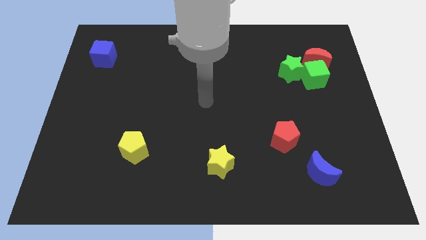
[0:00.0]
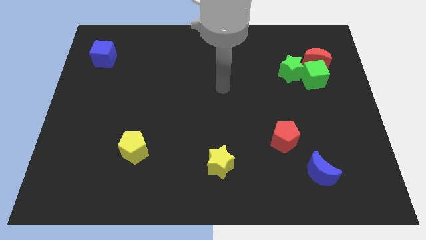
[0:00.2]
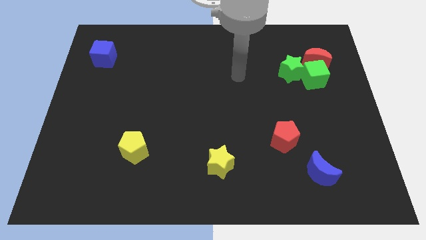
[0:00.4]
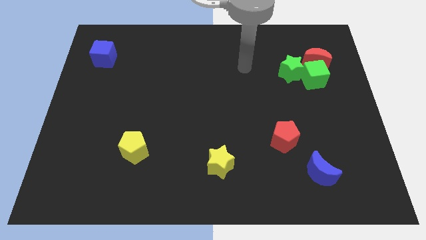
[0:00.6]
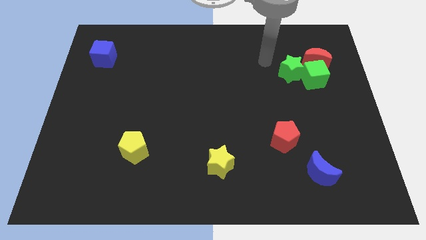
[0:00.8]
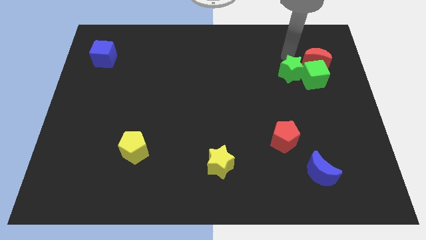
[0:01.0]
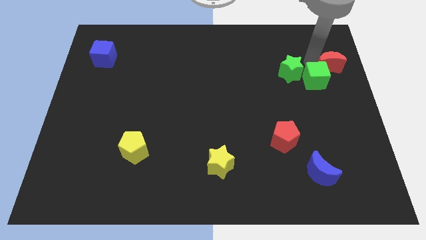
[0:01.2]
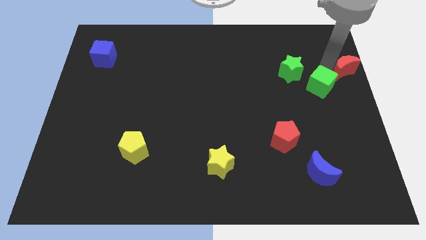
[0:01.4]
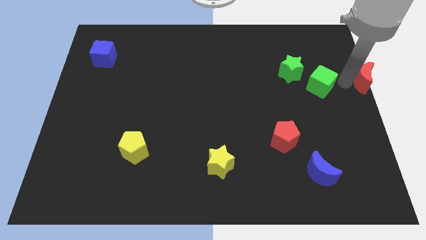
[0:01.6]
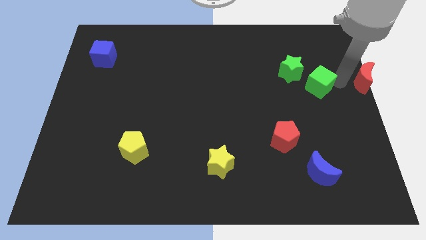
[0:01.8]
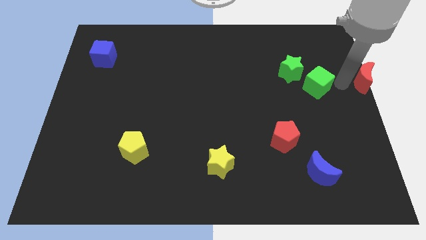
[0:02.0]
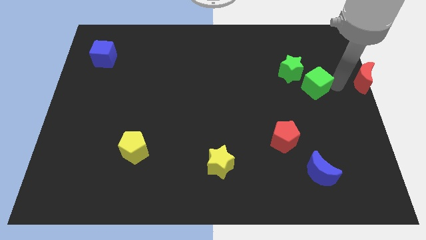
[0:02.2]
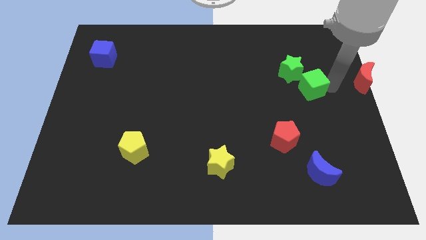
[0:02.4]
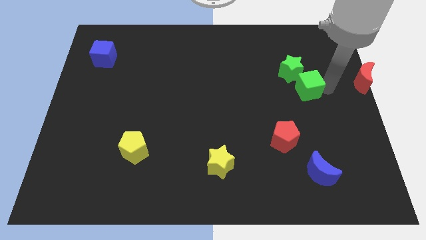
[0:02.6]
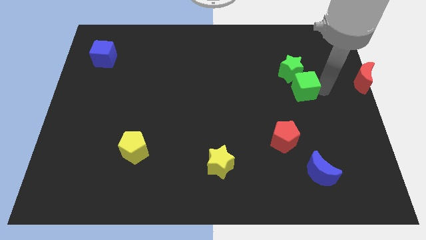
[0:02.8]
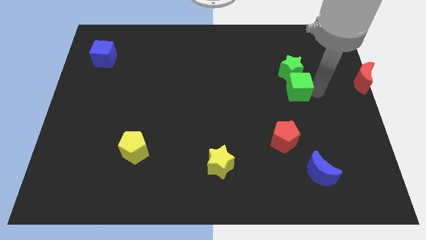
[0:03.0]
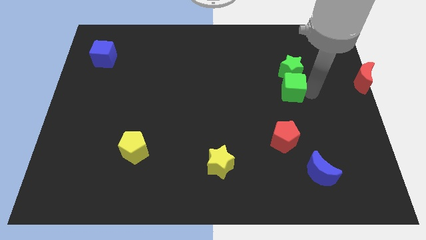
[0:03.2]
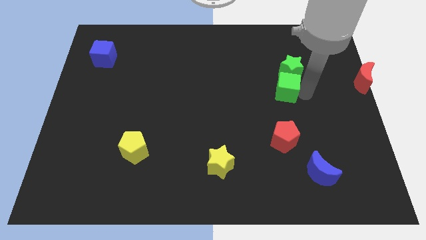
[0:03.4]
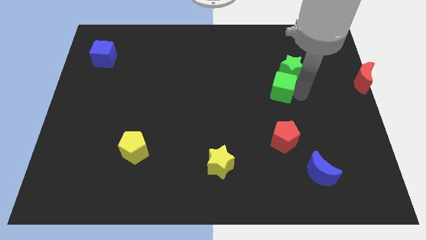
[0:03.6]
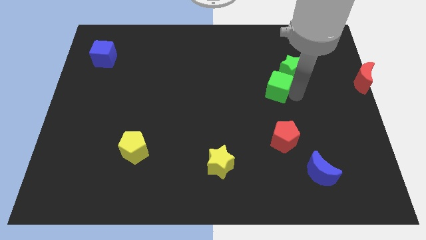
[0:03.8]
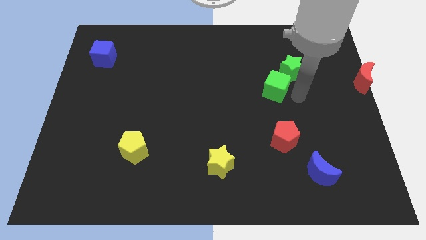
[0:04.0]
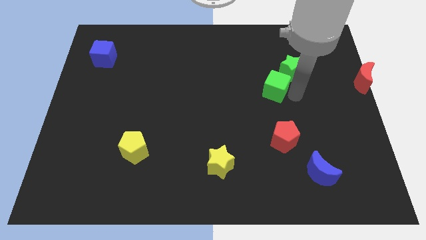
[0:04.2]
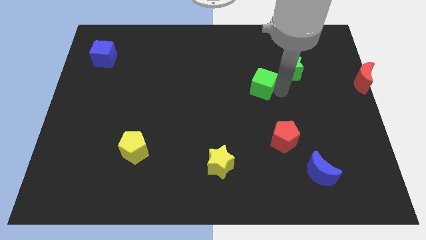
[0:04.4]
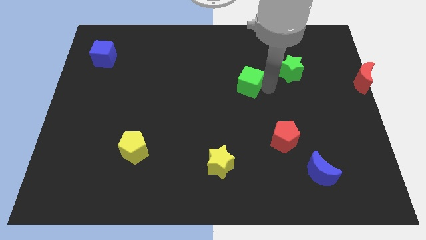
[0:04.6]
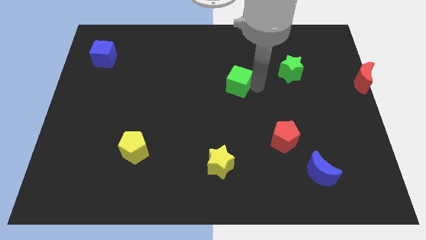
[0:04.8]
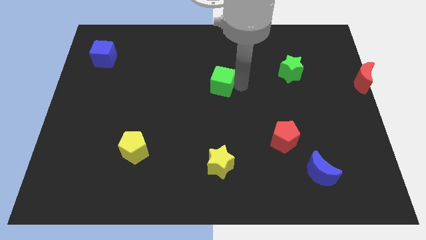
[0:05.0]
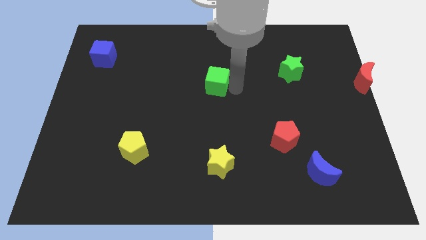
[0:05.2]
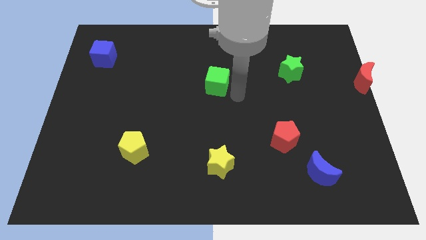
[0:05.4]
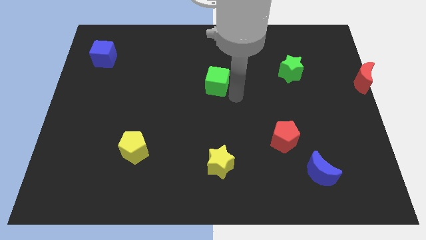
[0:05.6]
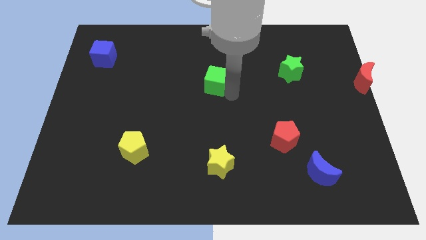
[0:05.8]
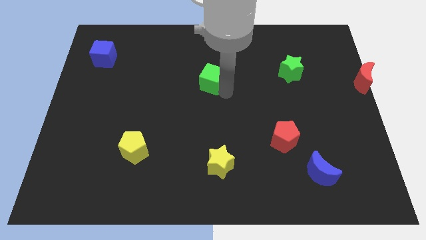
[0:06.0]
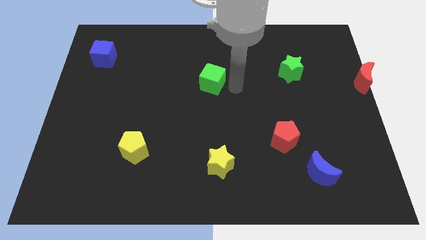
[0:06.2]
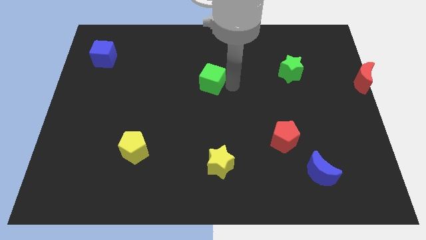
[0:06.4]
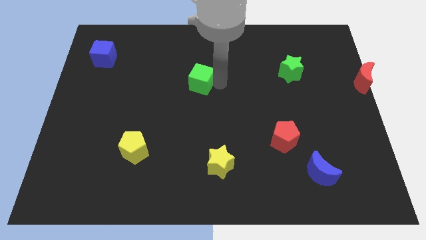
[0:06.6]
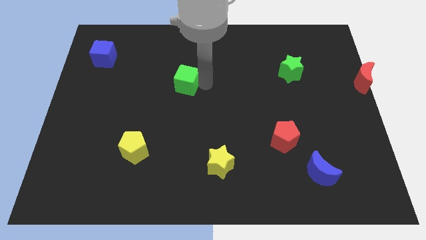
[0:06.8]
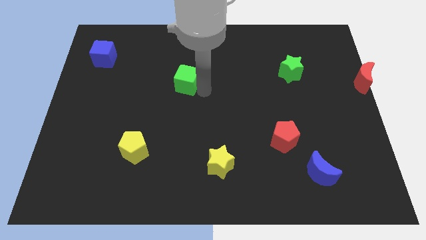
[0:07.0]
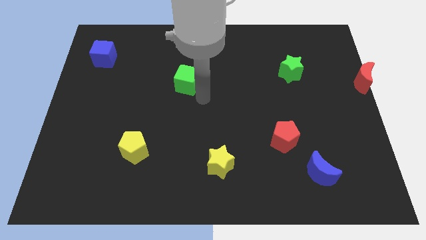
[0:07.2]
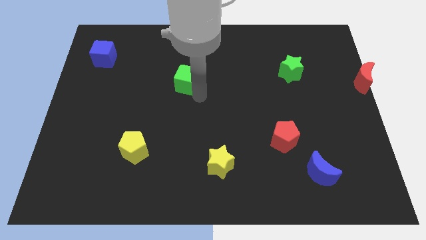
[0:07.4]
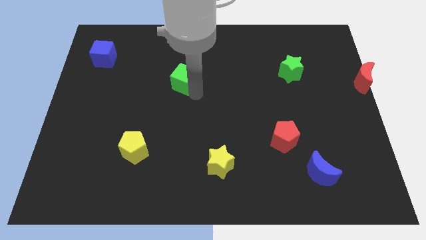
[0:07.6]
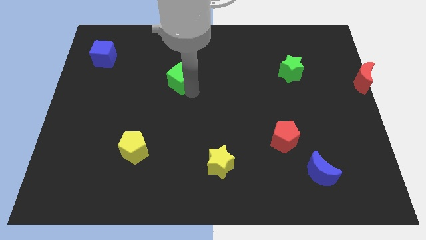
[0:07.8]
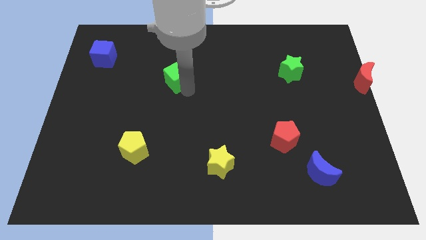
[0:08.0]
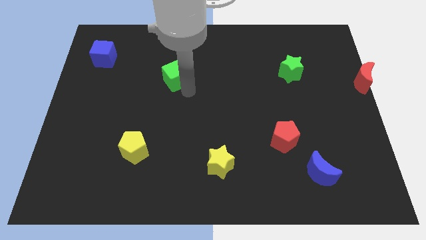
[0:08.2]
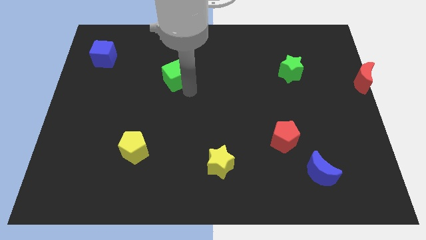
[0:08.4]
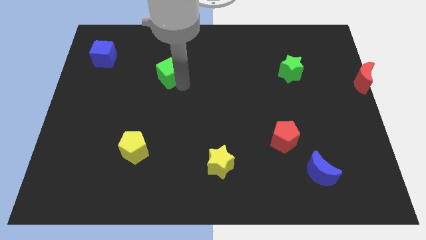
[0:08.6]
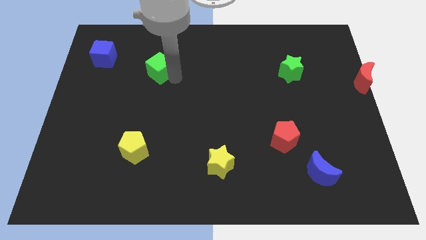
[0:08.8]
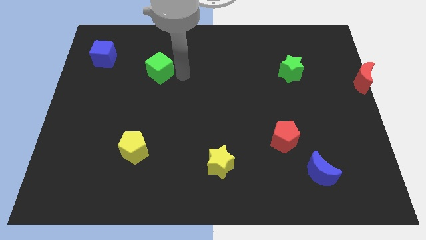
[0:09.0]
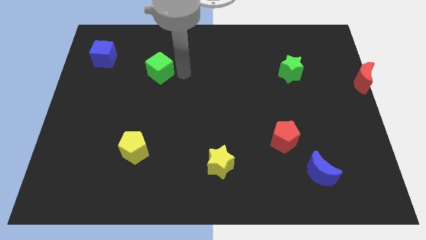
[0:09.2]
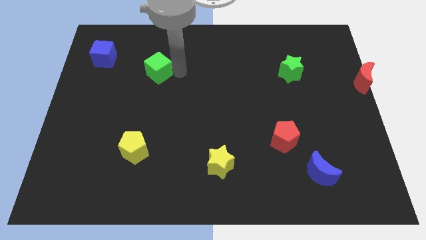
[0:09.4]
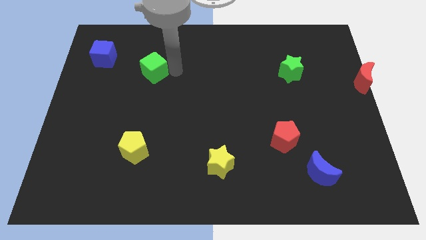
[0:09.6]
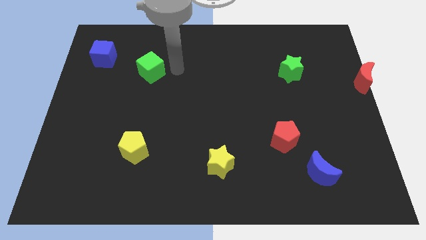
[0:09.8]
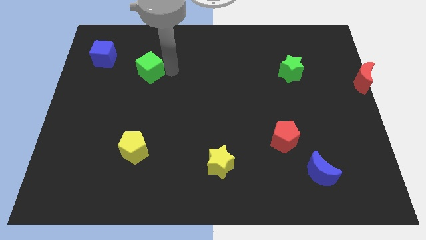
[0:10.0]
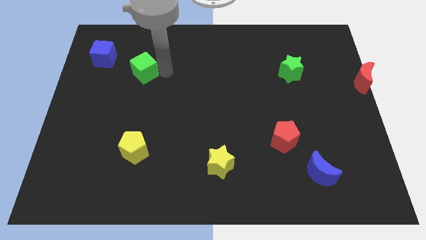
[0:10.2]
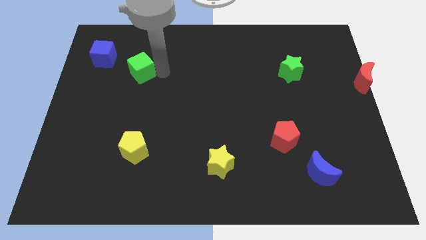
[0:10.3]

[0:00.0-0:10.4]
push the green cube diagonally down and to the right of the blue cube
